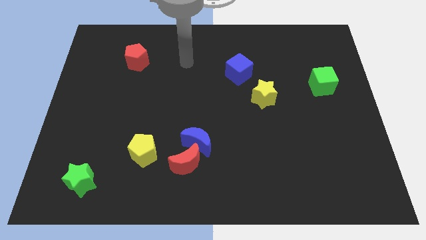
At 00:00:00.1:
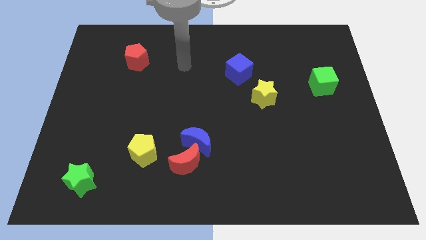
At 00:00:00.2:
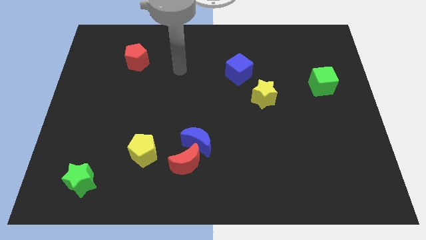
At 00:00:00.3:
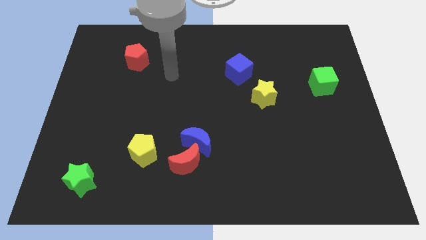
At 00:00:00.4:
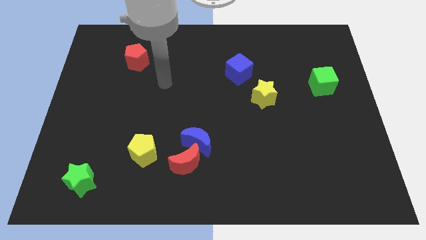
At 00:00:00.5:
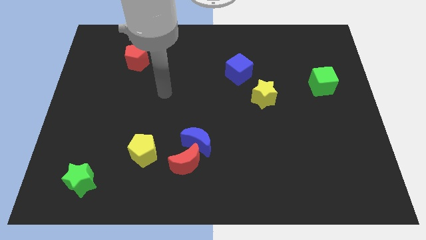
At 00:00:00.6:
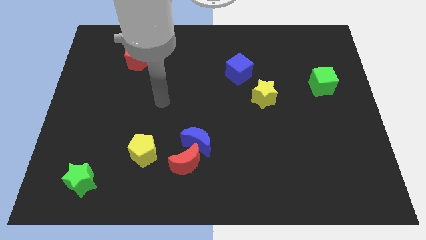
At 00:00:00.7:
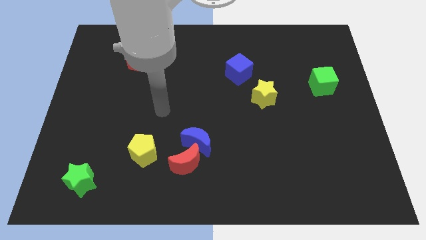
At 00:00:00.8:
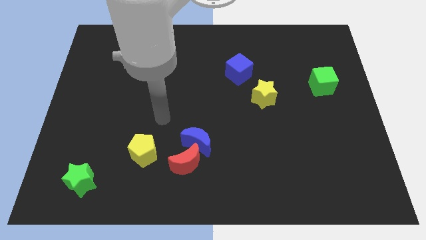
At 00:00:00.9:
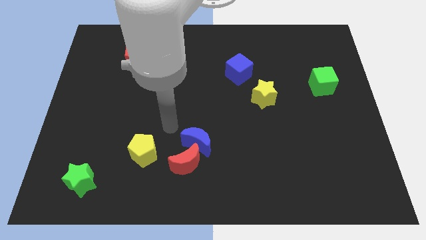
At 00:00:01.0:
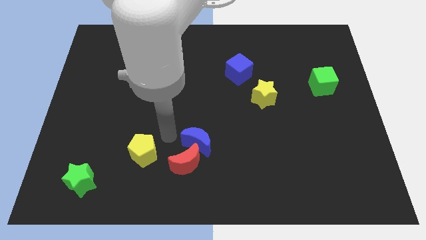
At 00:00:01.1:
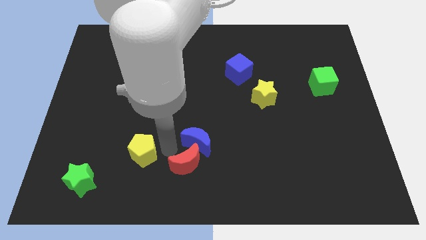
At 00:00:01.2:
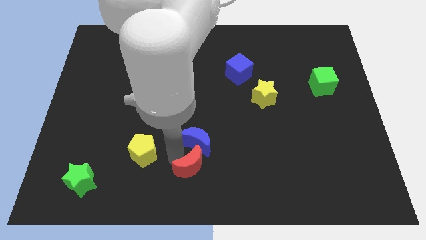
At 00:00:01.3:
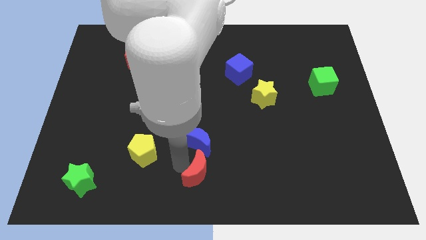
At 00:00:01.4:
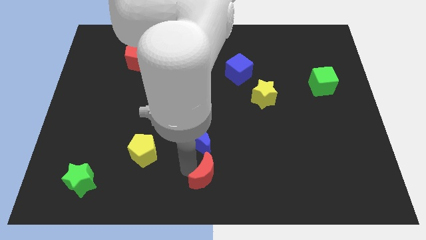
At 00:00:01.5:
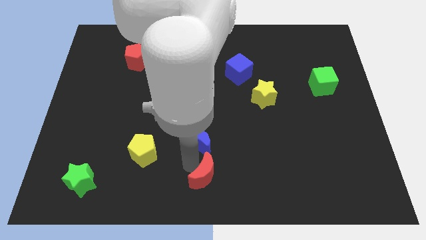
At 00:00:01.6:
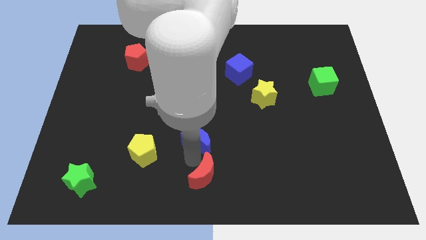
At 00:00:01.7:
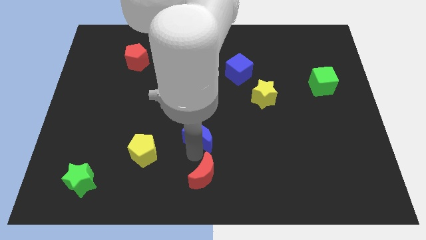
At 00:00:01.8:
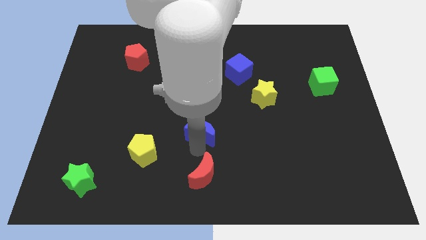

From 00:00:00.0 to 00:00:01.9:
pull the blue moon apart from the red moon

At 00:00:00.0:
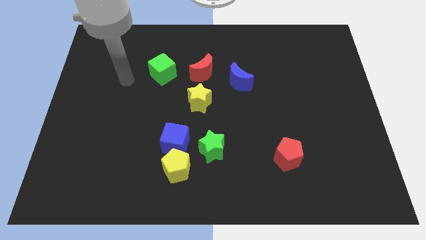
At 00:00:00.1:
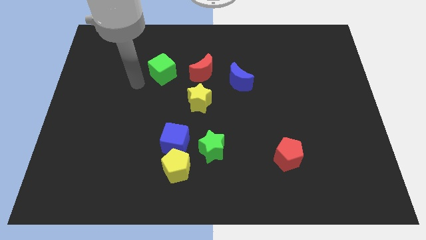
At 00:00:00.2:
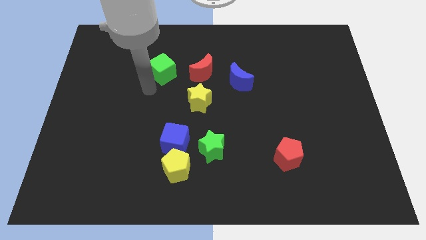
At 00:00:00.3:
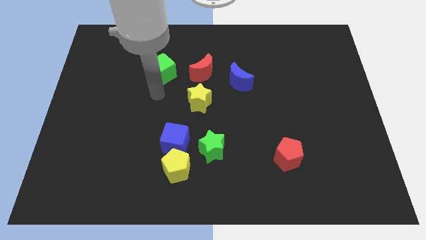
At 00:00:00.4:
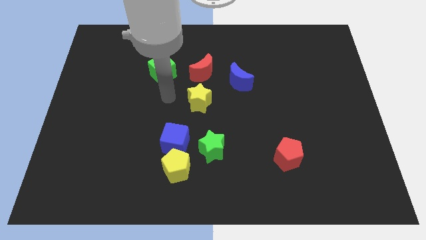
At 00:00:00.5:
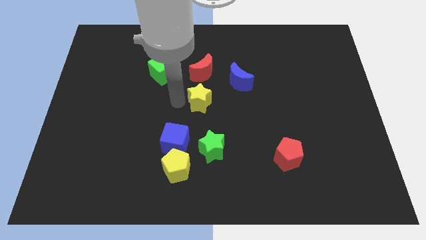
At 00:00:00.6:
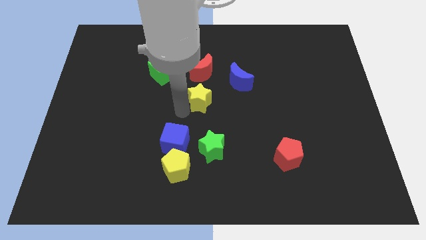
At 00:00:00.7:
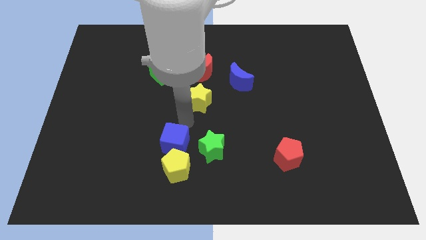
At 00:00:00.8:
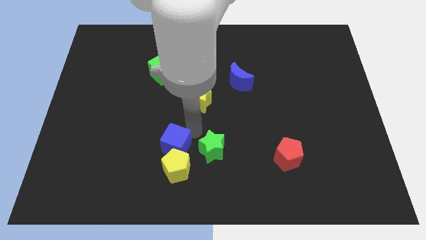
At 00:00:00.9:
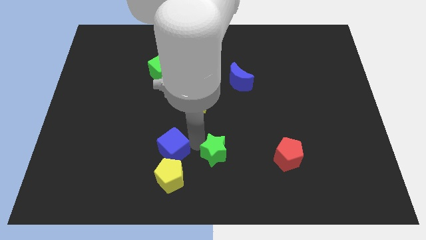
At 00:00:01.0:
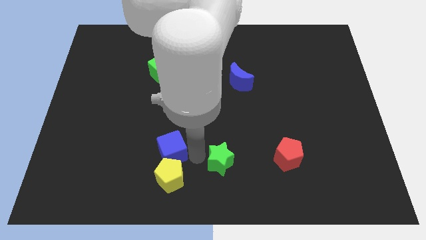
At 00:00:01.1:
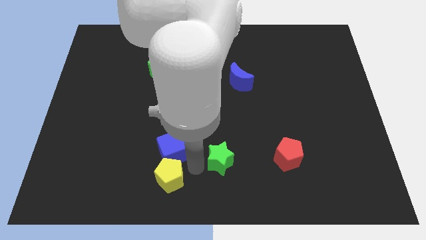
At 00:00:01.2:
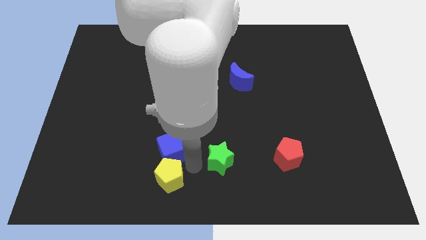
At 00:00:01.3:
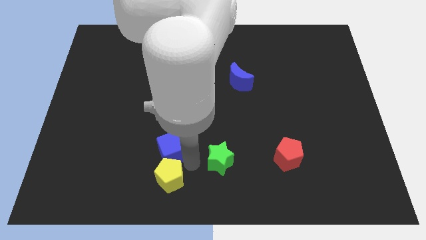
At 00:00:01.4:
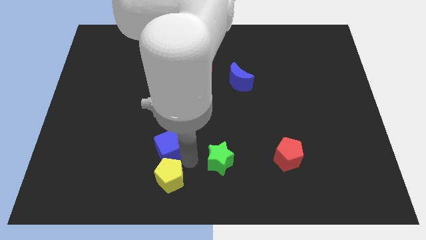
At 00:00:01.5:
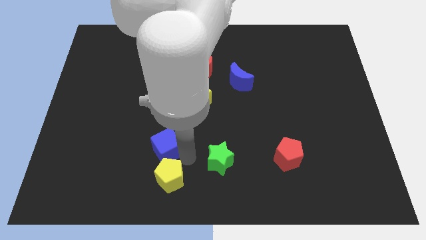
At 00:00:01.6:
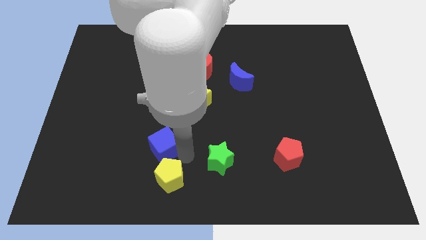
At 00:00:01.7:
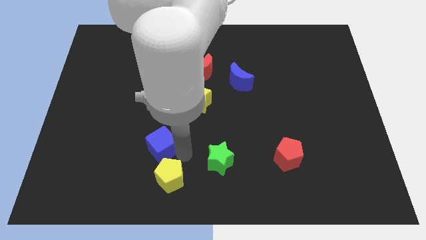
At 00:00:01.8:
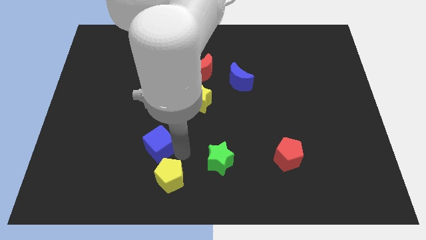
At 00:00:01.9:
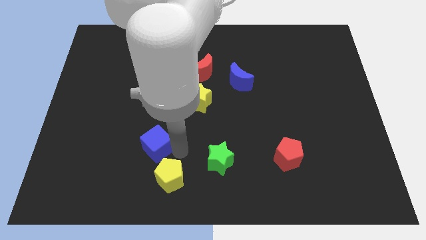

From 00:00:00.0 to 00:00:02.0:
separate the blue cube from the yellow pentagon and green star

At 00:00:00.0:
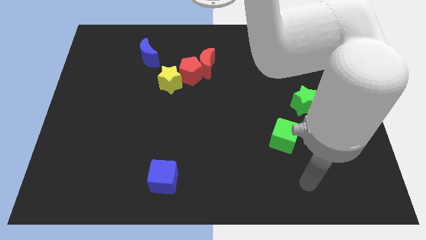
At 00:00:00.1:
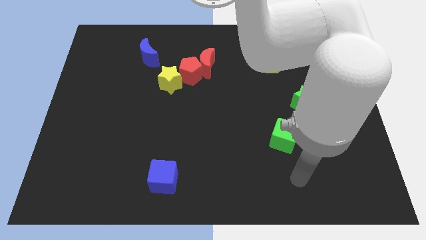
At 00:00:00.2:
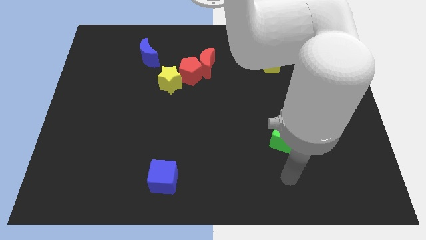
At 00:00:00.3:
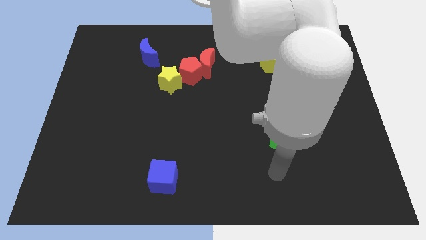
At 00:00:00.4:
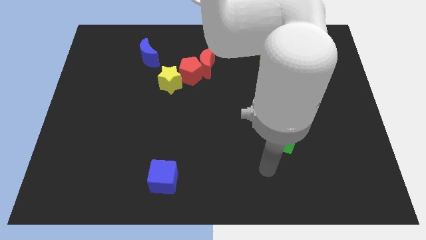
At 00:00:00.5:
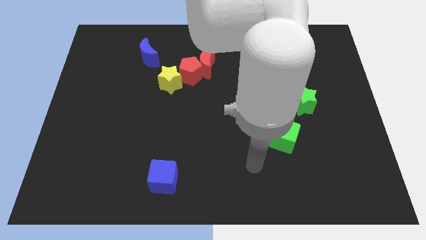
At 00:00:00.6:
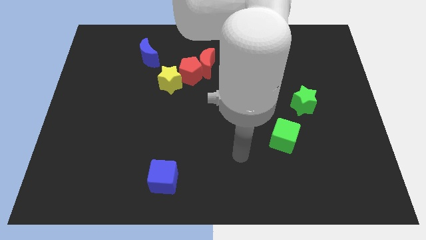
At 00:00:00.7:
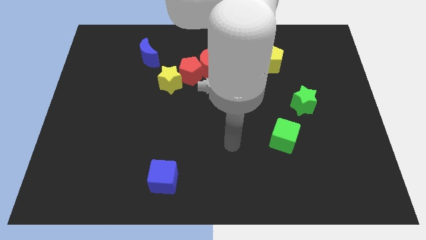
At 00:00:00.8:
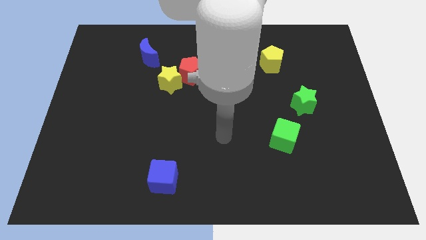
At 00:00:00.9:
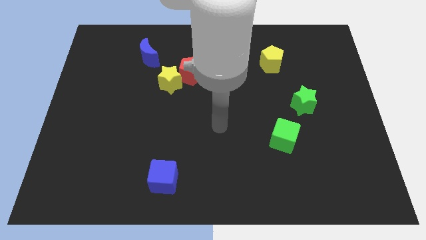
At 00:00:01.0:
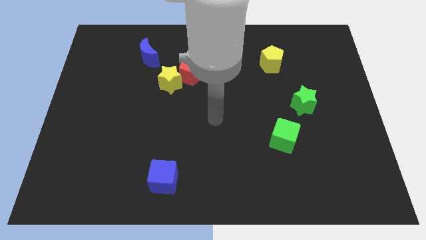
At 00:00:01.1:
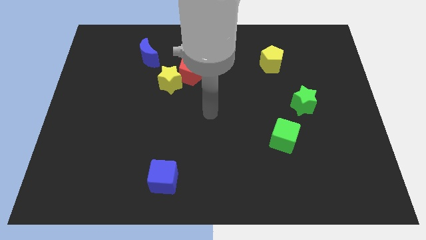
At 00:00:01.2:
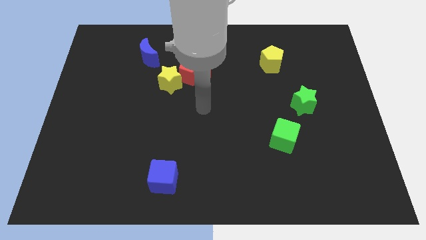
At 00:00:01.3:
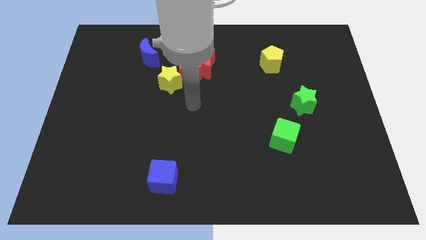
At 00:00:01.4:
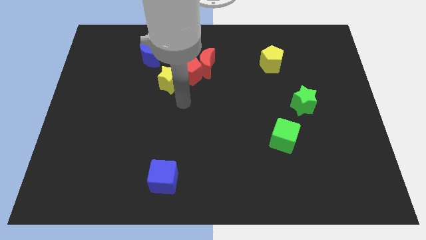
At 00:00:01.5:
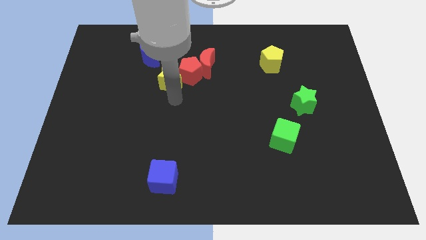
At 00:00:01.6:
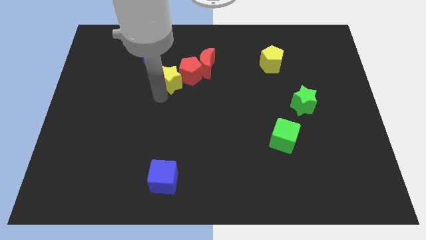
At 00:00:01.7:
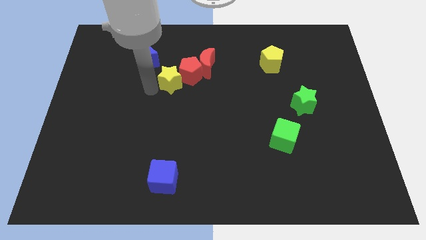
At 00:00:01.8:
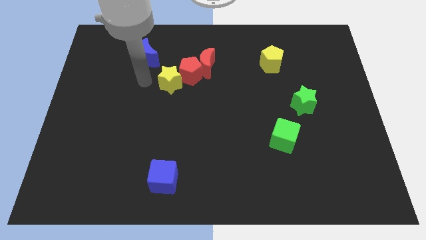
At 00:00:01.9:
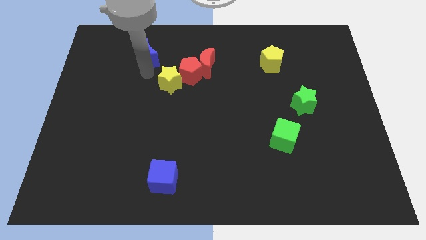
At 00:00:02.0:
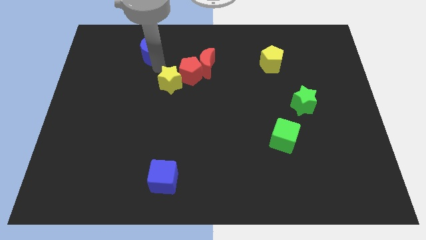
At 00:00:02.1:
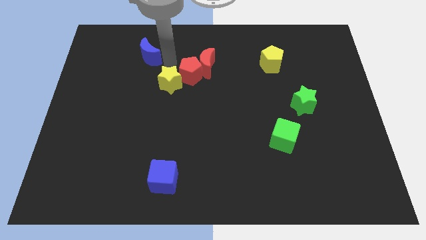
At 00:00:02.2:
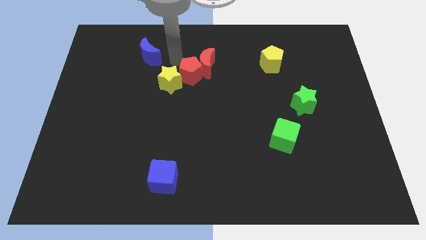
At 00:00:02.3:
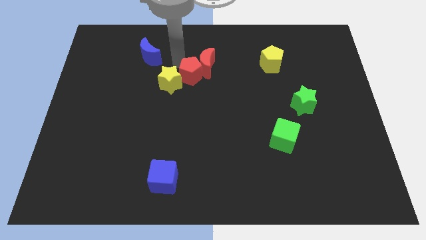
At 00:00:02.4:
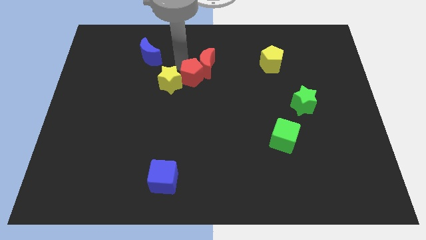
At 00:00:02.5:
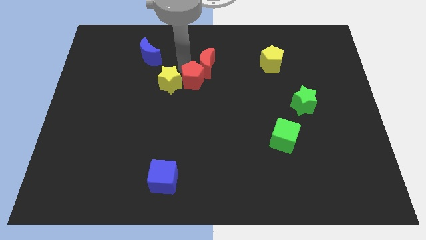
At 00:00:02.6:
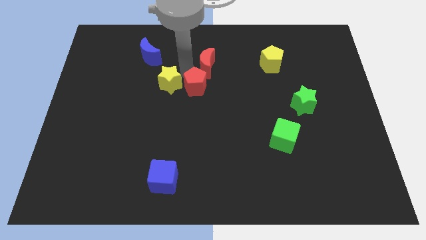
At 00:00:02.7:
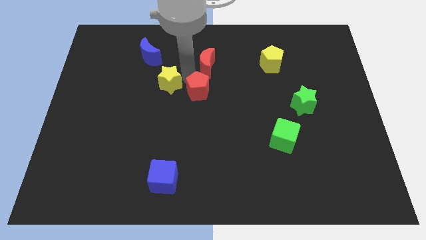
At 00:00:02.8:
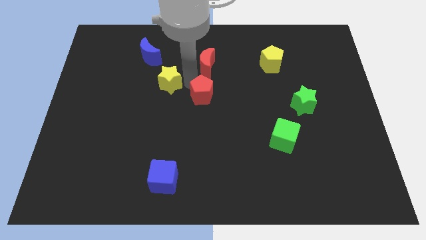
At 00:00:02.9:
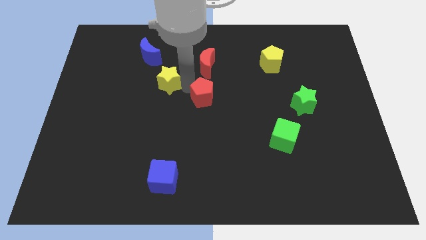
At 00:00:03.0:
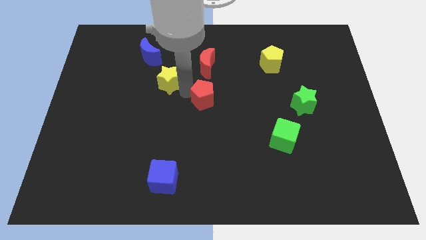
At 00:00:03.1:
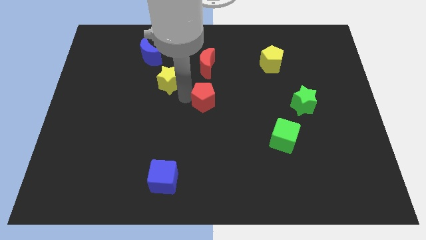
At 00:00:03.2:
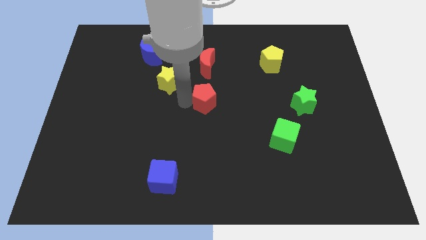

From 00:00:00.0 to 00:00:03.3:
pull the red pentagon apart from the red moon and yellow star

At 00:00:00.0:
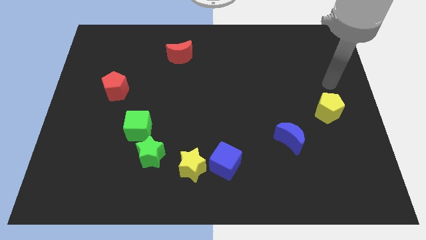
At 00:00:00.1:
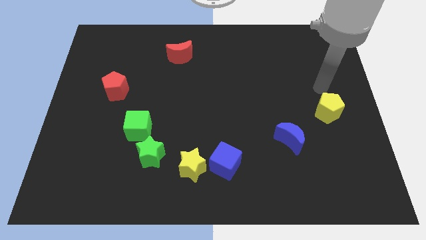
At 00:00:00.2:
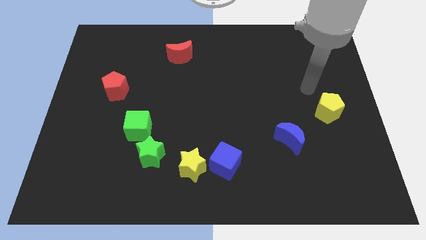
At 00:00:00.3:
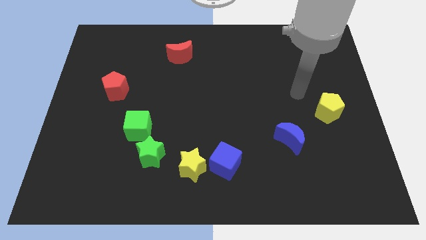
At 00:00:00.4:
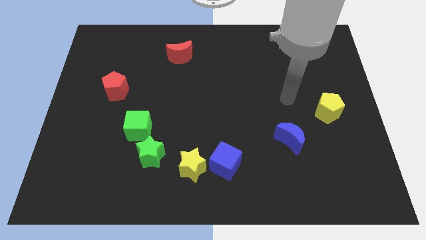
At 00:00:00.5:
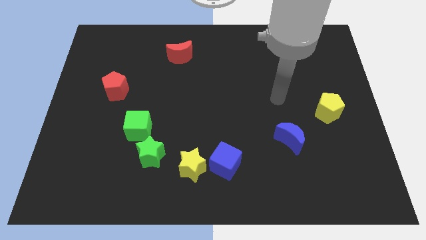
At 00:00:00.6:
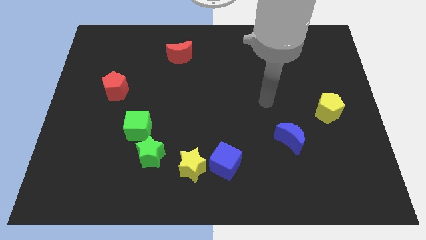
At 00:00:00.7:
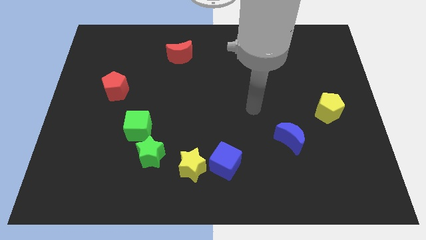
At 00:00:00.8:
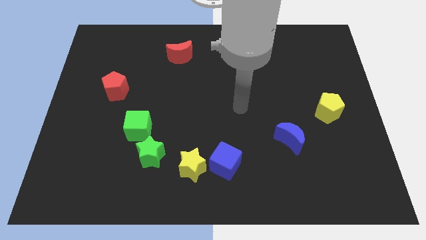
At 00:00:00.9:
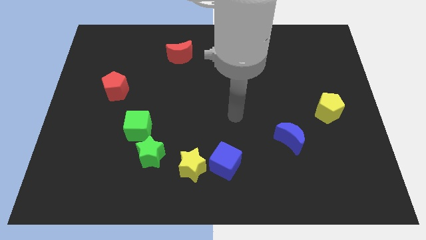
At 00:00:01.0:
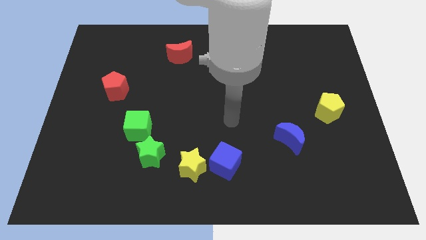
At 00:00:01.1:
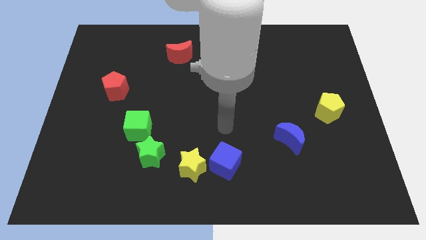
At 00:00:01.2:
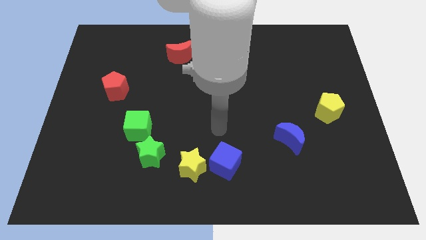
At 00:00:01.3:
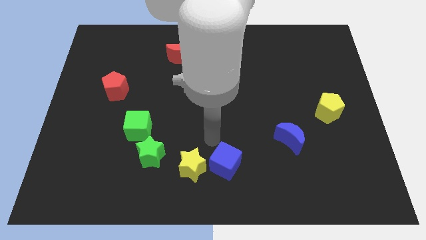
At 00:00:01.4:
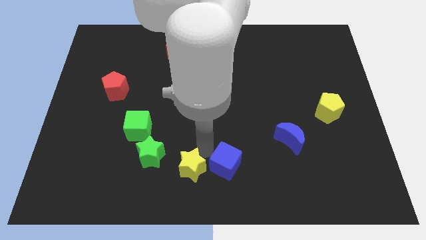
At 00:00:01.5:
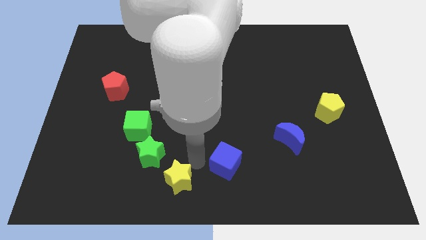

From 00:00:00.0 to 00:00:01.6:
move the blue cube away from the yellow star

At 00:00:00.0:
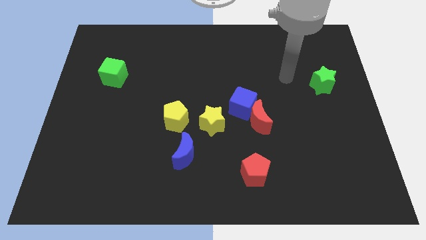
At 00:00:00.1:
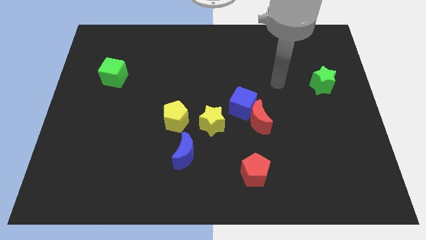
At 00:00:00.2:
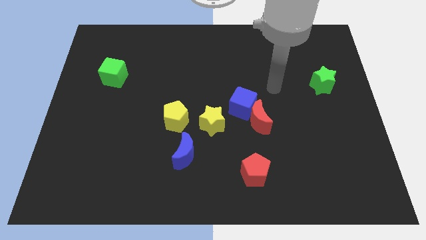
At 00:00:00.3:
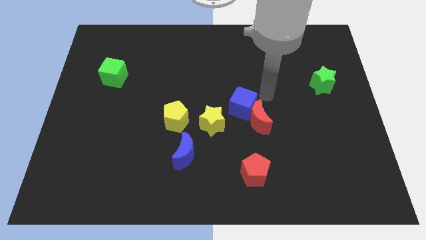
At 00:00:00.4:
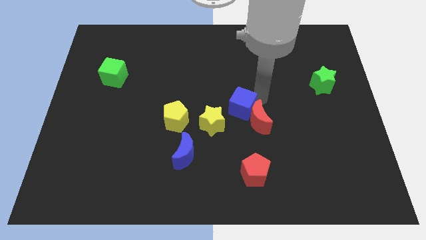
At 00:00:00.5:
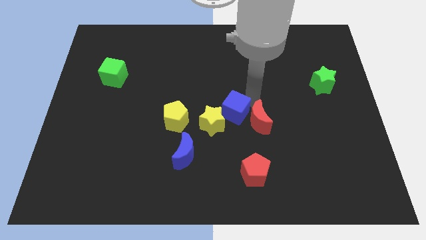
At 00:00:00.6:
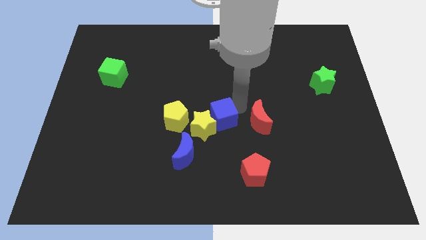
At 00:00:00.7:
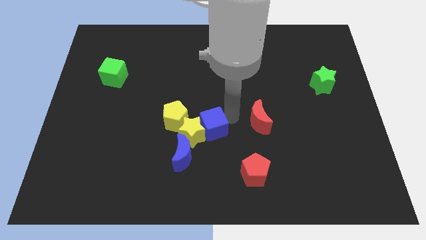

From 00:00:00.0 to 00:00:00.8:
pull the red moon apart from the blue cube
